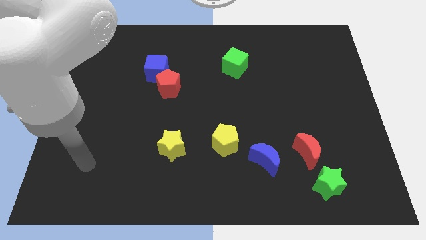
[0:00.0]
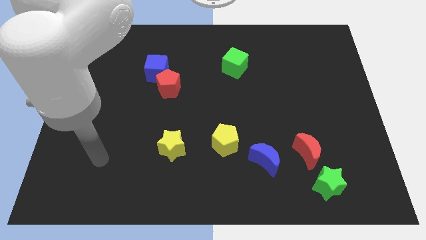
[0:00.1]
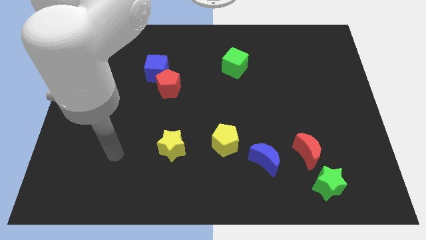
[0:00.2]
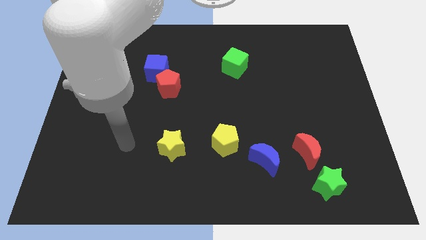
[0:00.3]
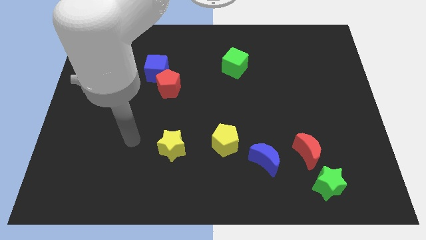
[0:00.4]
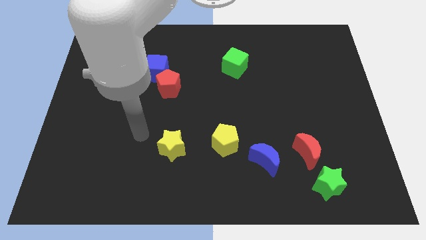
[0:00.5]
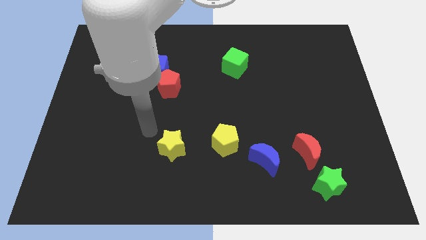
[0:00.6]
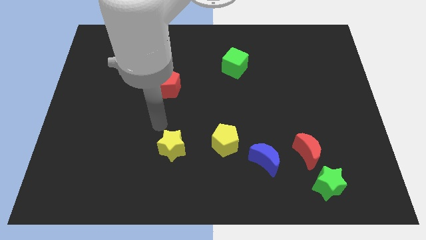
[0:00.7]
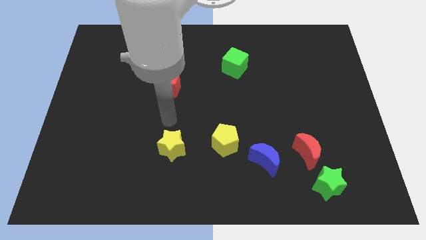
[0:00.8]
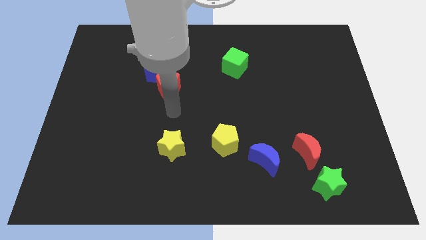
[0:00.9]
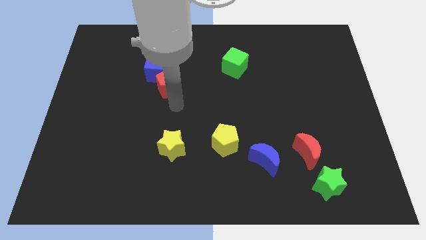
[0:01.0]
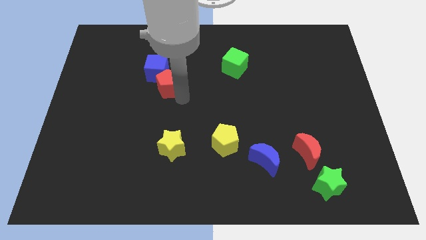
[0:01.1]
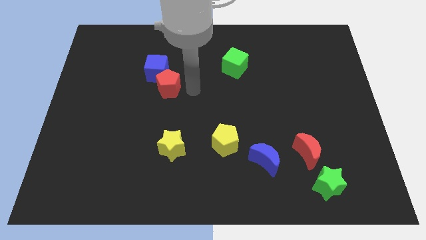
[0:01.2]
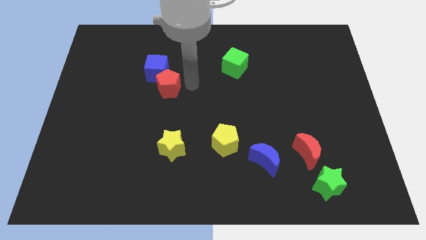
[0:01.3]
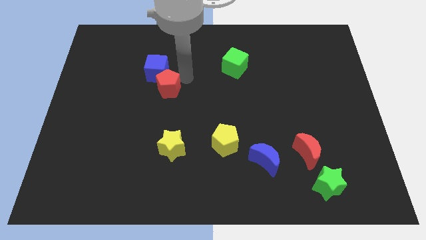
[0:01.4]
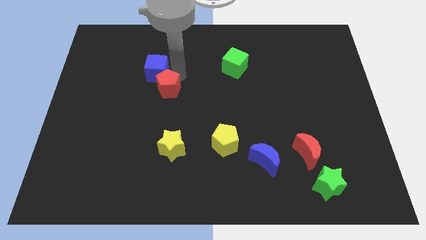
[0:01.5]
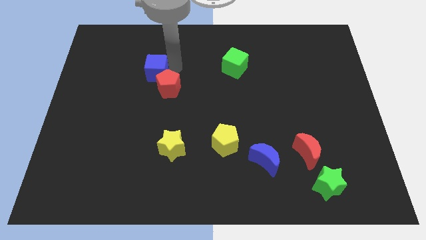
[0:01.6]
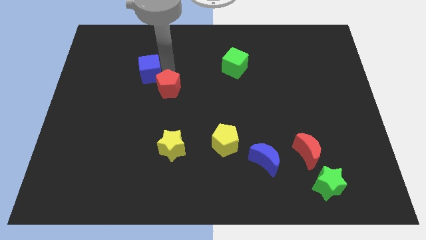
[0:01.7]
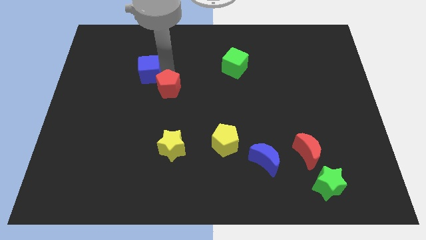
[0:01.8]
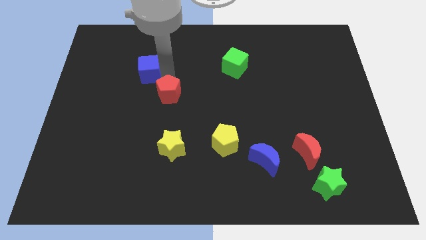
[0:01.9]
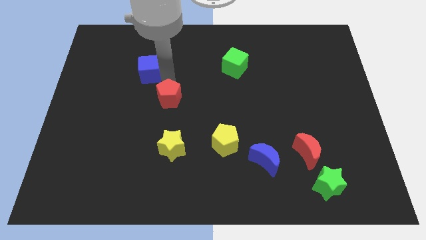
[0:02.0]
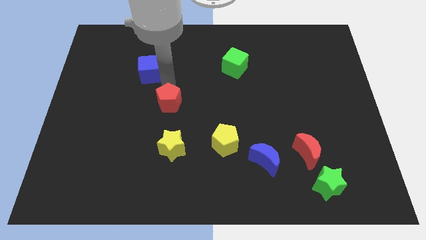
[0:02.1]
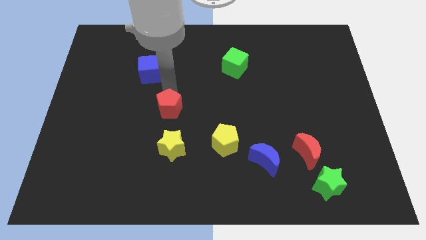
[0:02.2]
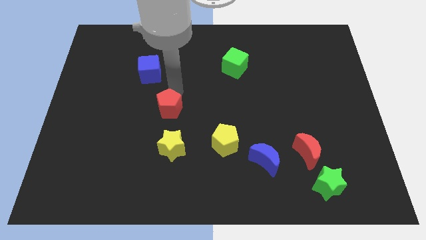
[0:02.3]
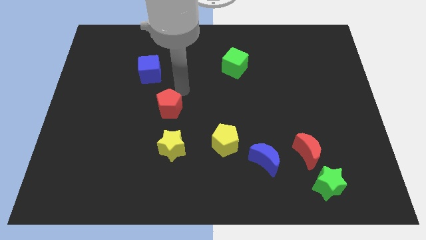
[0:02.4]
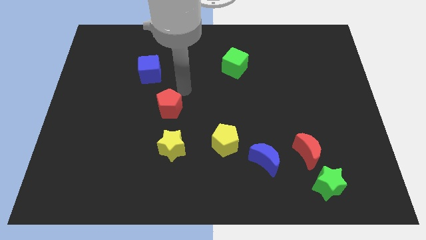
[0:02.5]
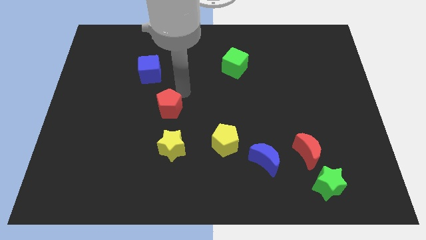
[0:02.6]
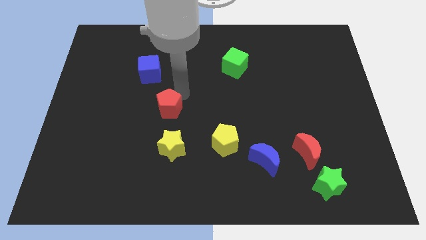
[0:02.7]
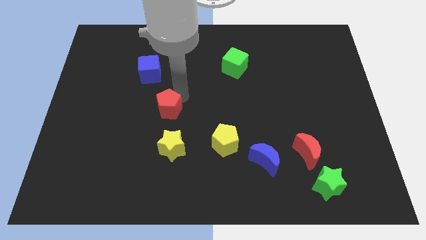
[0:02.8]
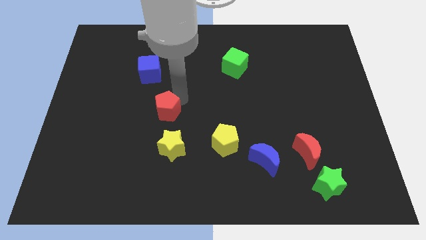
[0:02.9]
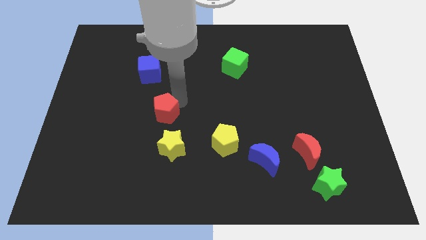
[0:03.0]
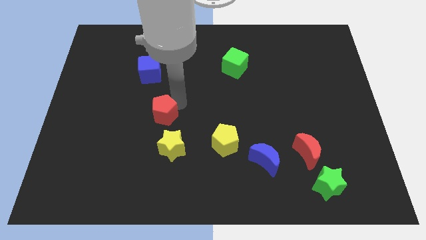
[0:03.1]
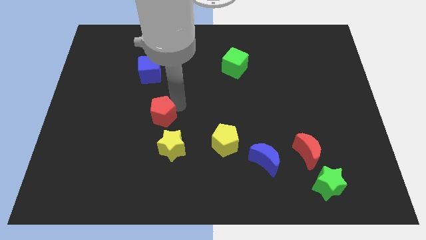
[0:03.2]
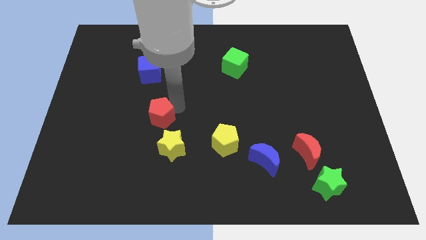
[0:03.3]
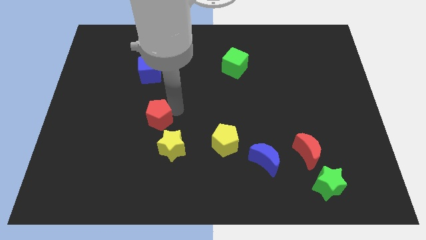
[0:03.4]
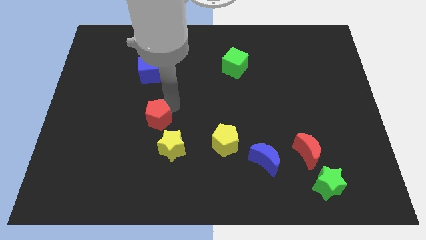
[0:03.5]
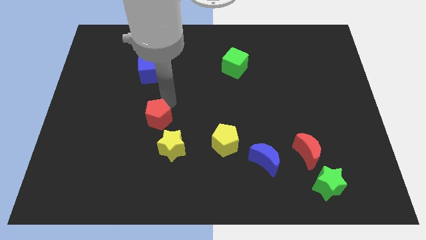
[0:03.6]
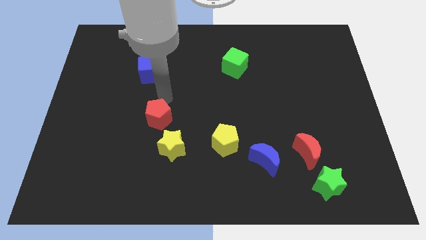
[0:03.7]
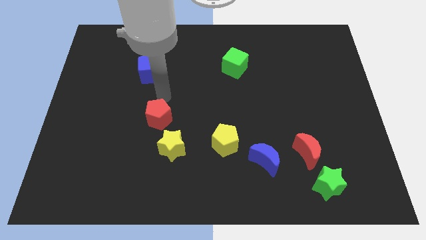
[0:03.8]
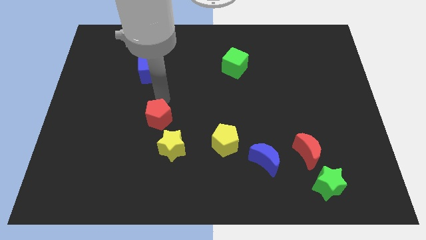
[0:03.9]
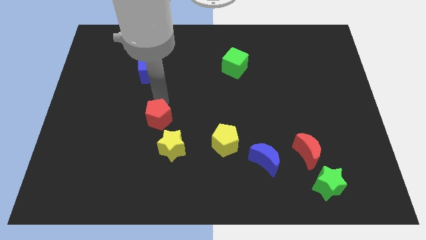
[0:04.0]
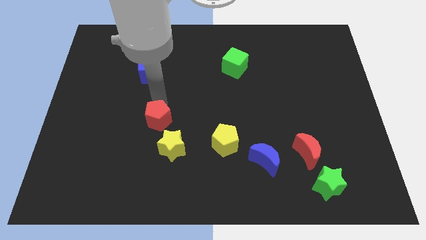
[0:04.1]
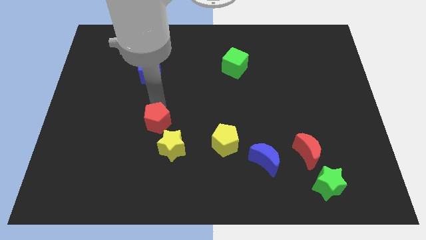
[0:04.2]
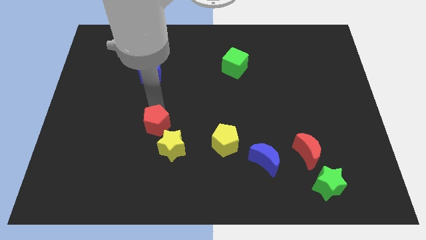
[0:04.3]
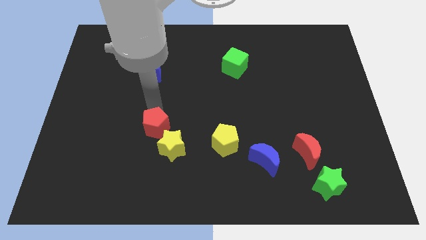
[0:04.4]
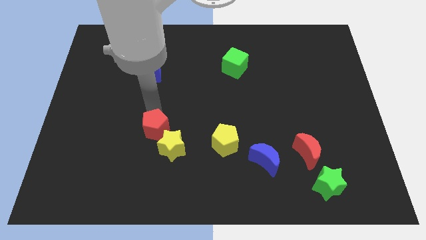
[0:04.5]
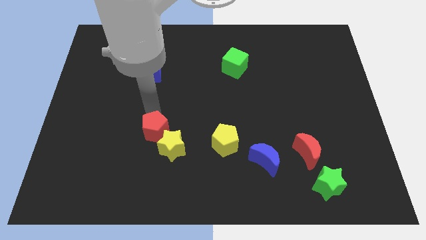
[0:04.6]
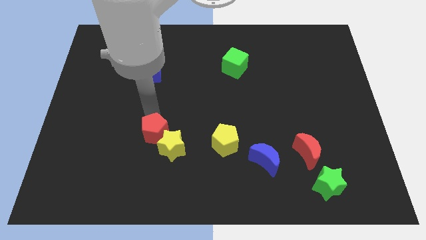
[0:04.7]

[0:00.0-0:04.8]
push the red pentagon to the left of the yellow pentagon

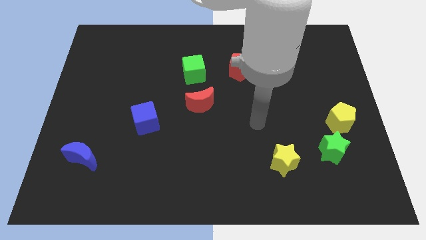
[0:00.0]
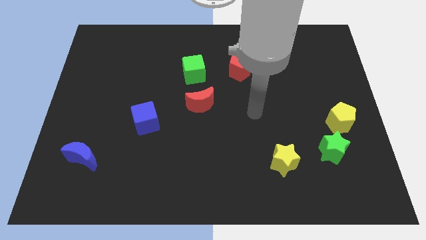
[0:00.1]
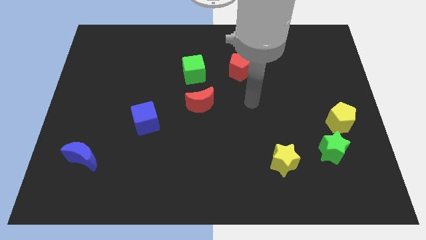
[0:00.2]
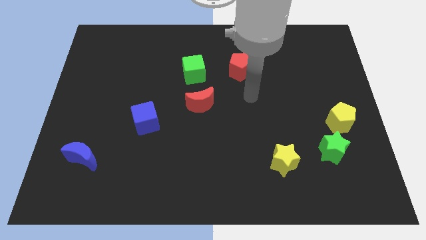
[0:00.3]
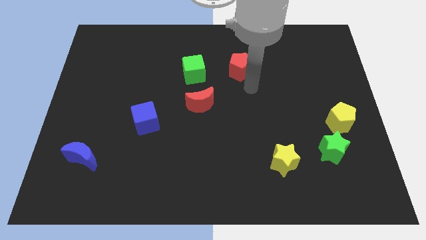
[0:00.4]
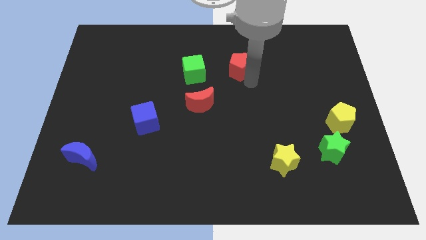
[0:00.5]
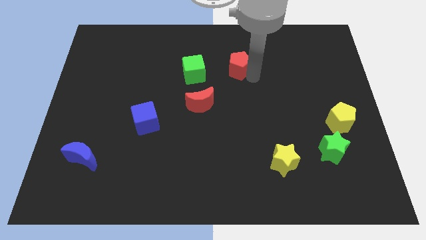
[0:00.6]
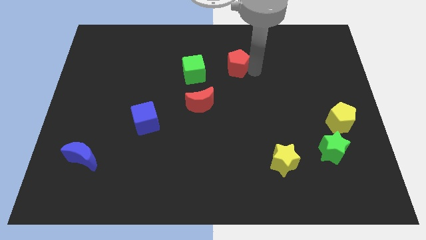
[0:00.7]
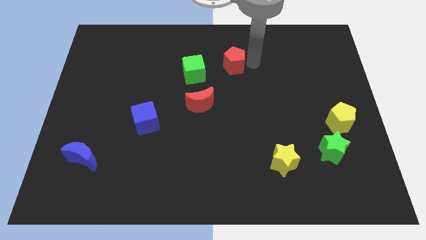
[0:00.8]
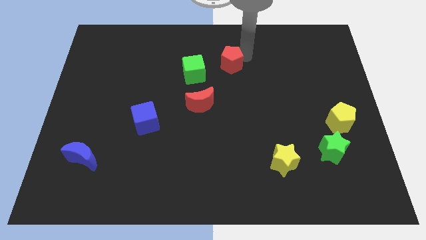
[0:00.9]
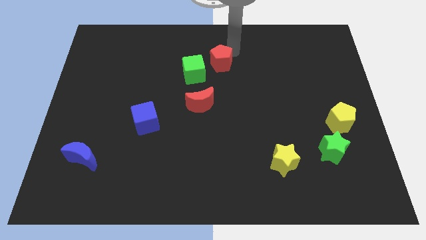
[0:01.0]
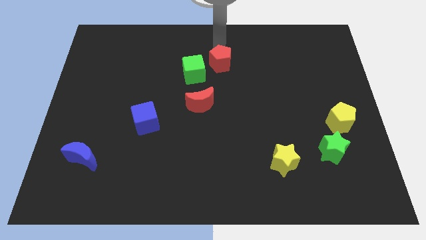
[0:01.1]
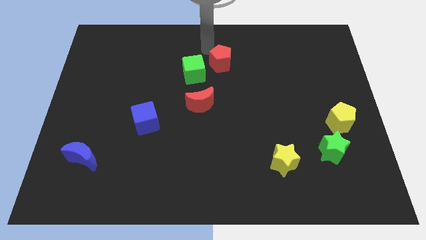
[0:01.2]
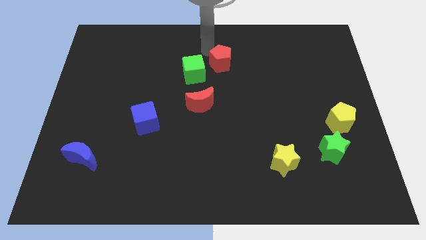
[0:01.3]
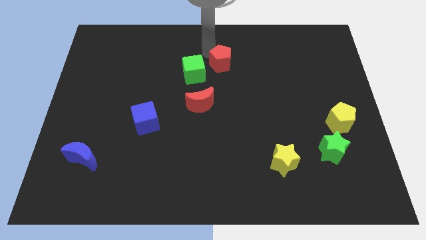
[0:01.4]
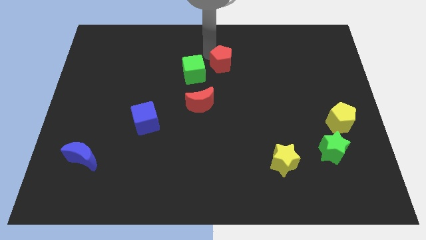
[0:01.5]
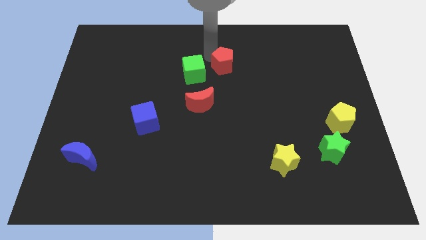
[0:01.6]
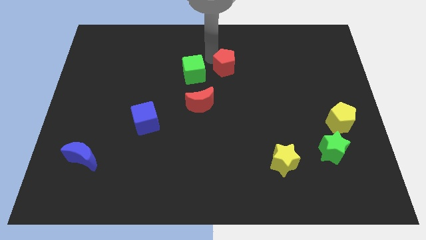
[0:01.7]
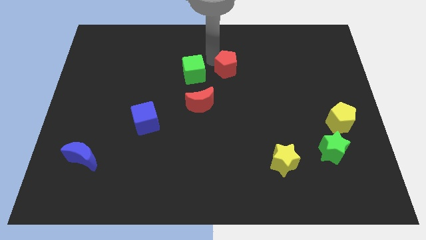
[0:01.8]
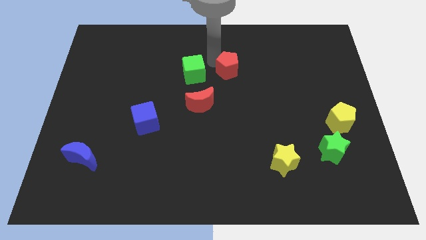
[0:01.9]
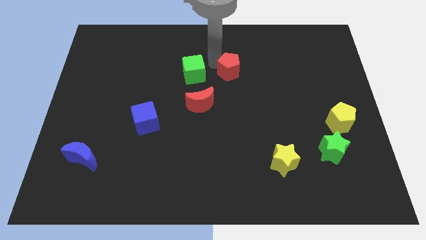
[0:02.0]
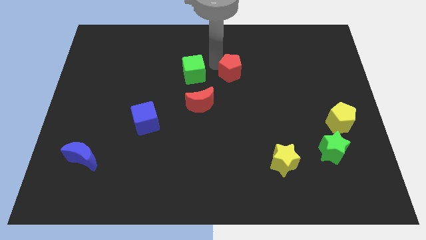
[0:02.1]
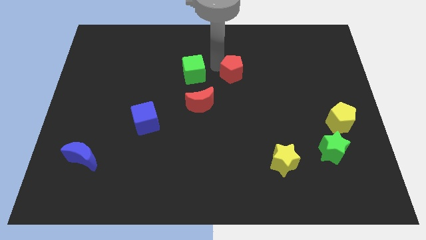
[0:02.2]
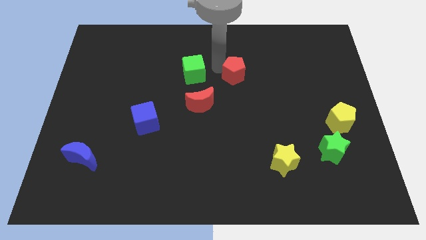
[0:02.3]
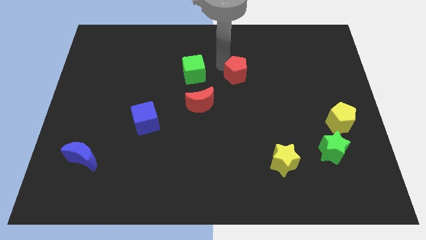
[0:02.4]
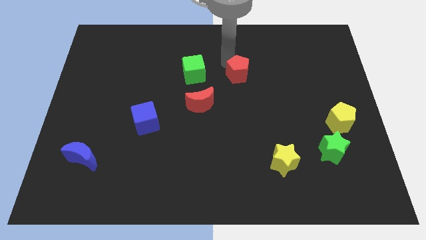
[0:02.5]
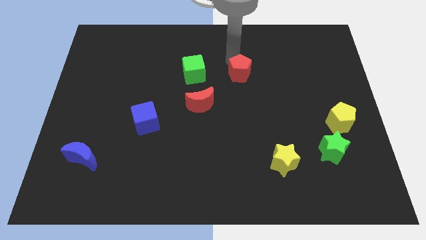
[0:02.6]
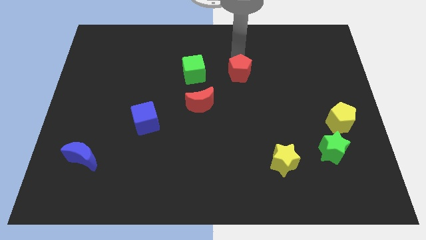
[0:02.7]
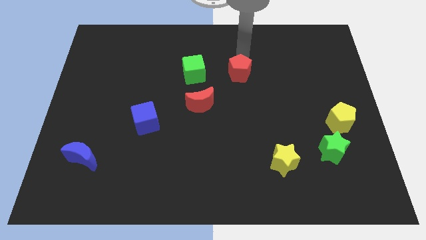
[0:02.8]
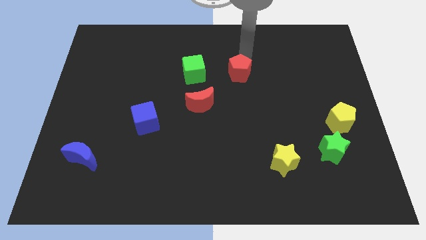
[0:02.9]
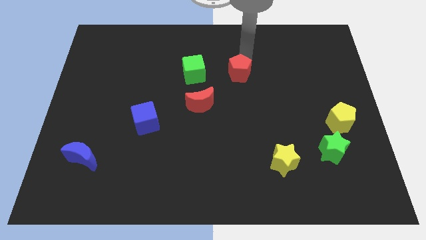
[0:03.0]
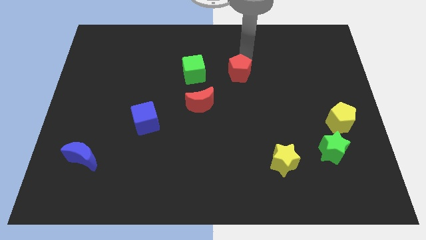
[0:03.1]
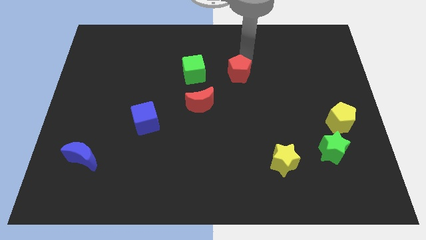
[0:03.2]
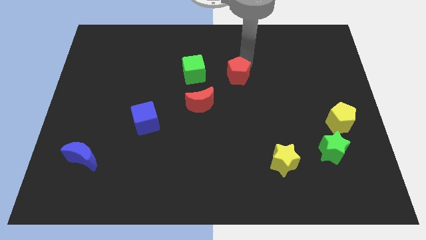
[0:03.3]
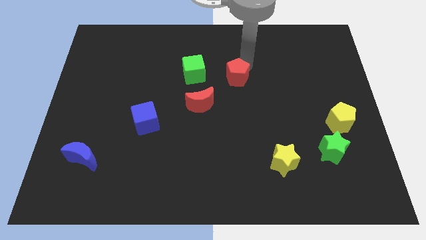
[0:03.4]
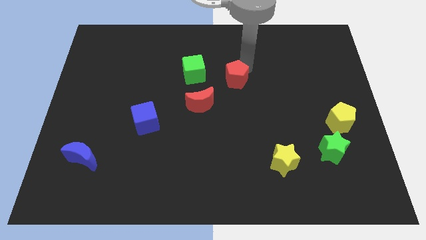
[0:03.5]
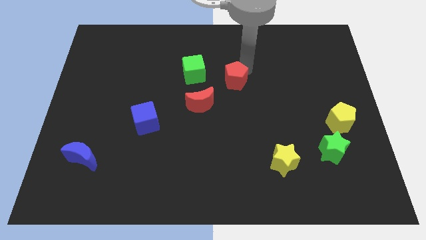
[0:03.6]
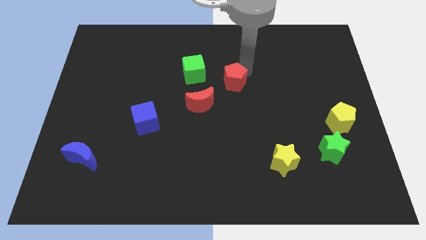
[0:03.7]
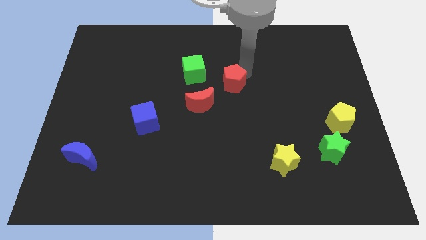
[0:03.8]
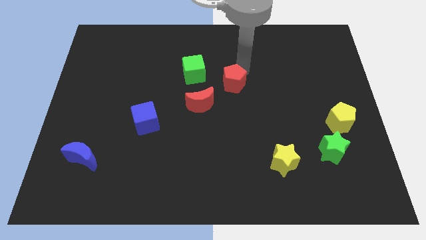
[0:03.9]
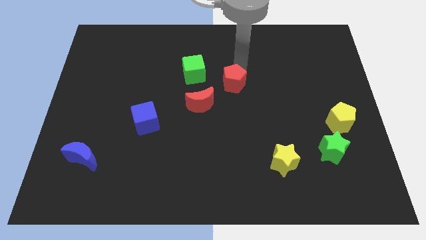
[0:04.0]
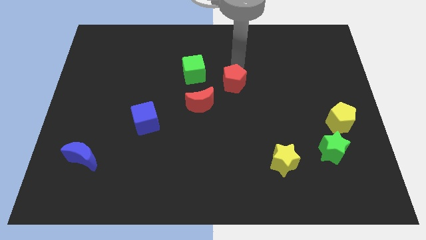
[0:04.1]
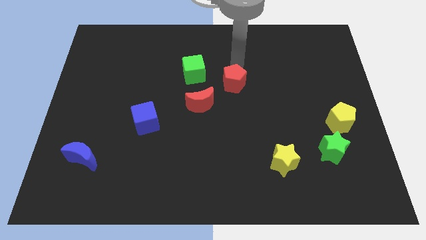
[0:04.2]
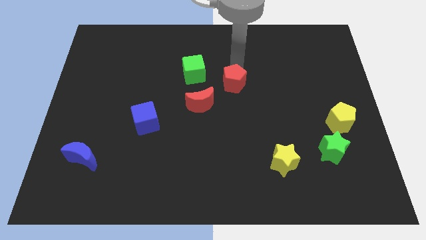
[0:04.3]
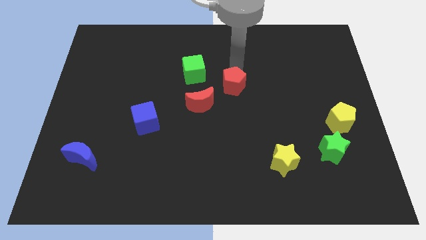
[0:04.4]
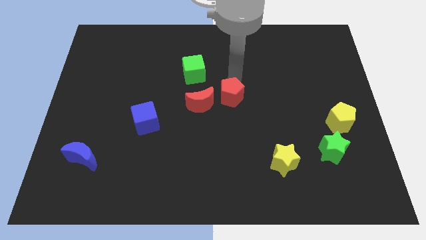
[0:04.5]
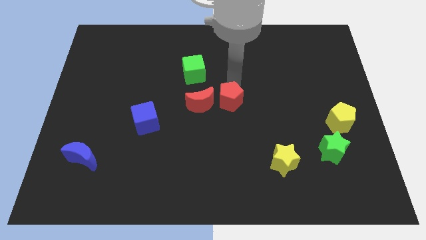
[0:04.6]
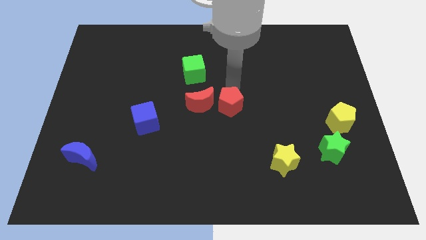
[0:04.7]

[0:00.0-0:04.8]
push the red pentagon to the bottom right side of the red moon
